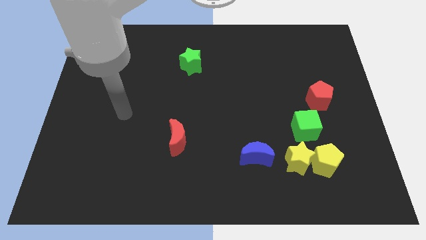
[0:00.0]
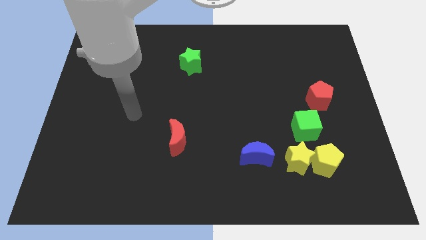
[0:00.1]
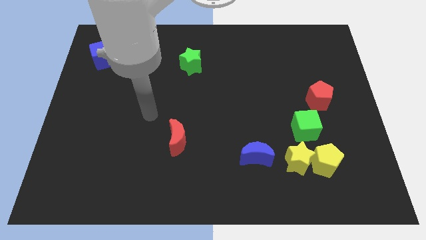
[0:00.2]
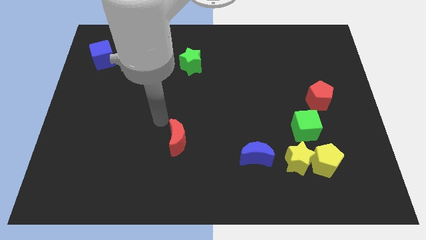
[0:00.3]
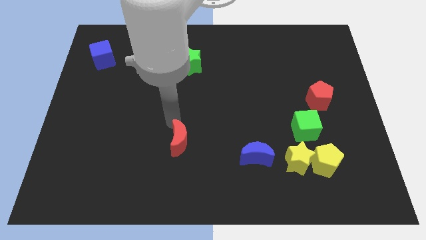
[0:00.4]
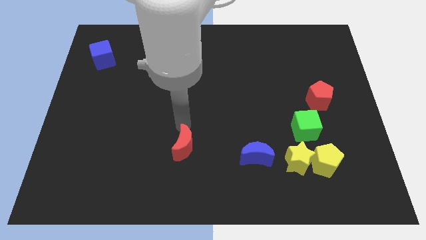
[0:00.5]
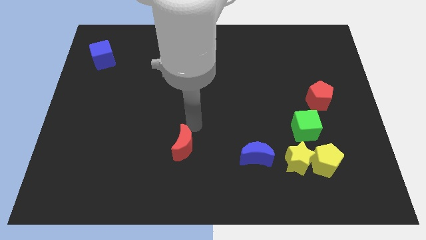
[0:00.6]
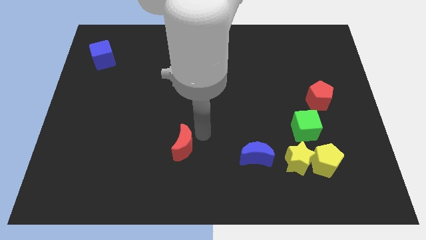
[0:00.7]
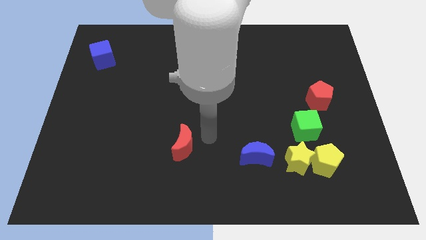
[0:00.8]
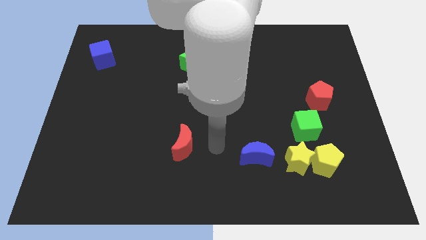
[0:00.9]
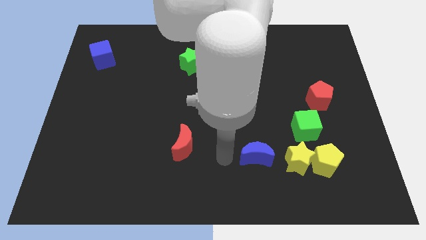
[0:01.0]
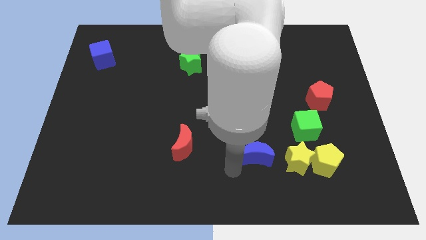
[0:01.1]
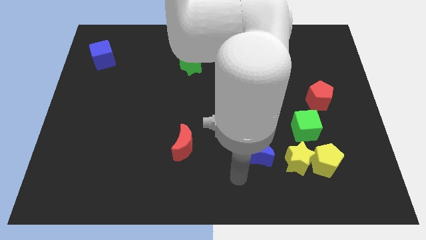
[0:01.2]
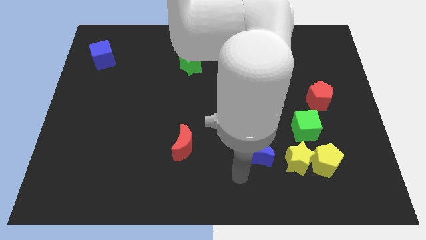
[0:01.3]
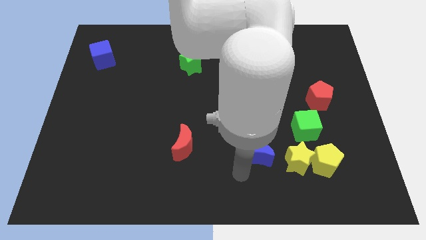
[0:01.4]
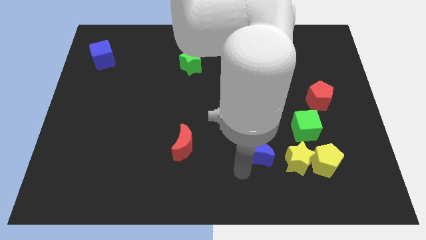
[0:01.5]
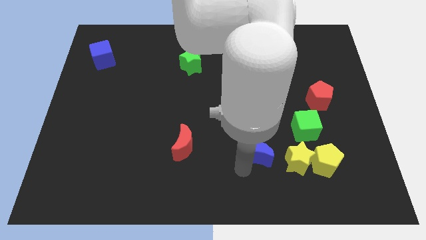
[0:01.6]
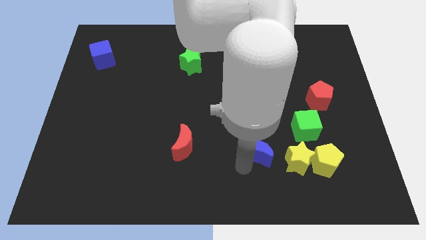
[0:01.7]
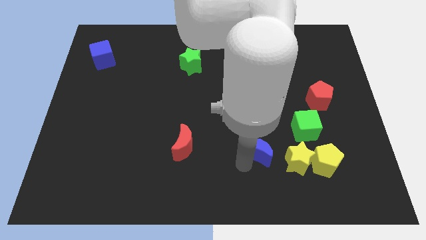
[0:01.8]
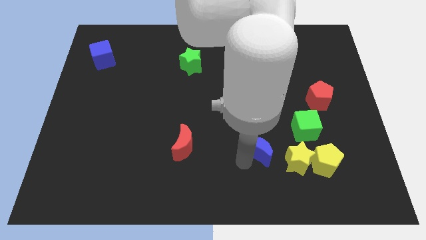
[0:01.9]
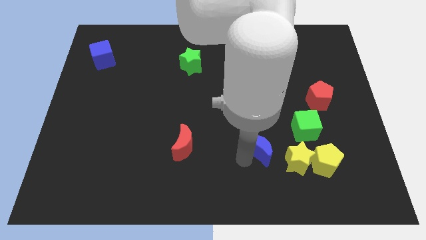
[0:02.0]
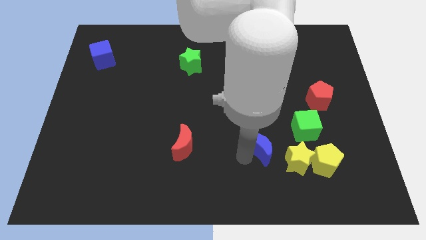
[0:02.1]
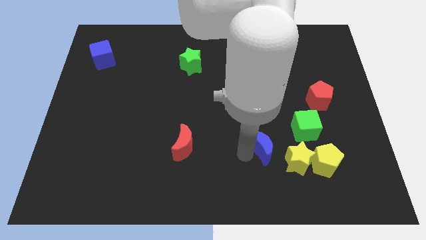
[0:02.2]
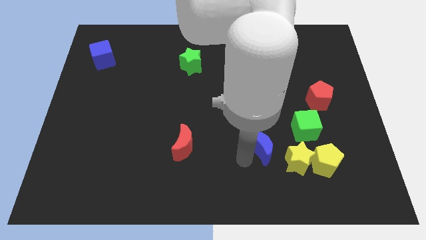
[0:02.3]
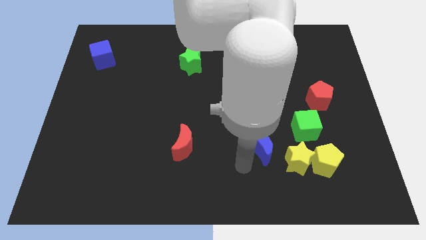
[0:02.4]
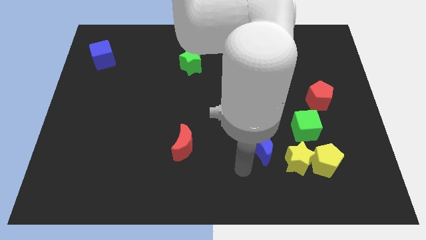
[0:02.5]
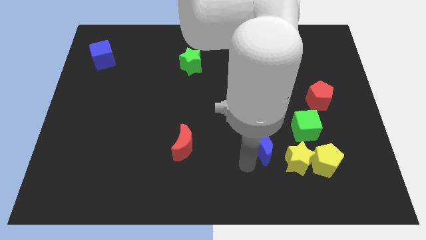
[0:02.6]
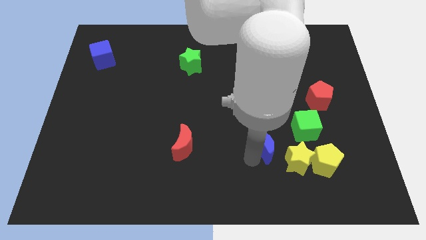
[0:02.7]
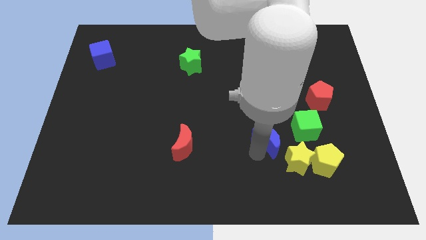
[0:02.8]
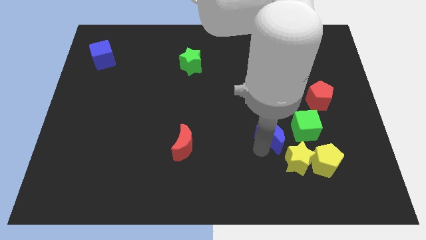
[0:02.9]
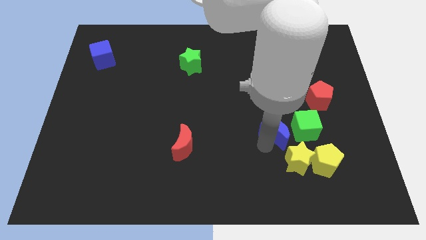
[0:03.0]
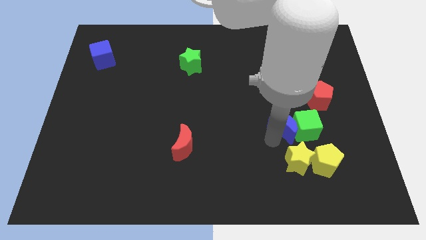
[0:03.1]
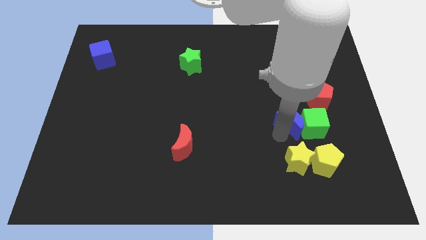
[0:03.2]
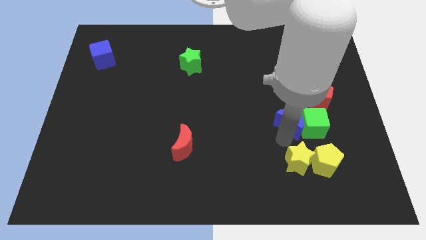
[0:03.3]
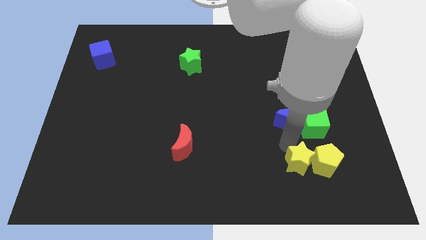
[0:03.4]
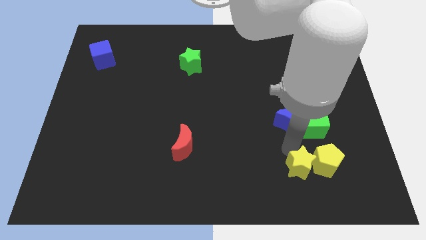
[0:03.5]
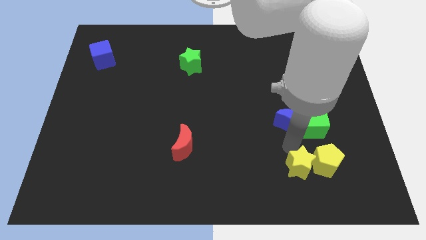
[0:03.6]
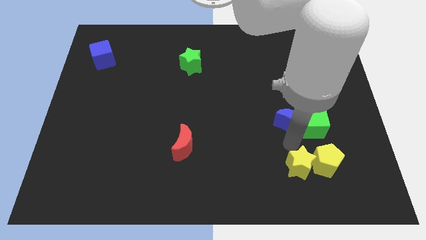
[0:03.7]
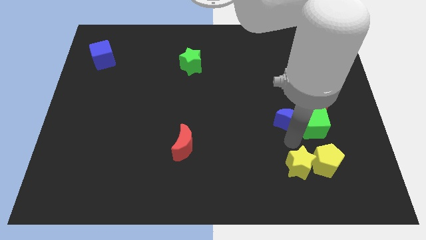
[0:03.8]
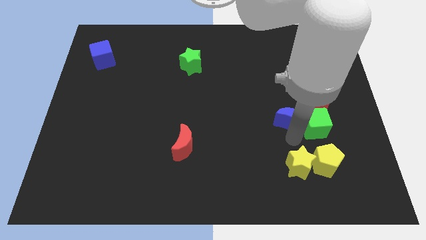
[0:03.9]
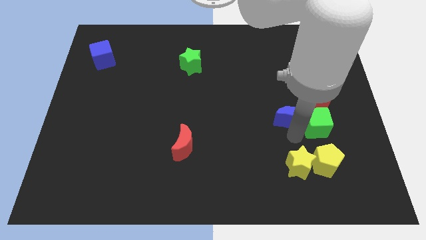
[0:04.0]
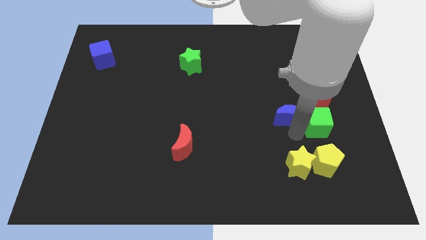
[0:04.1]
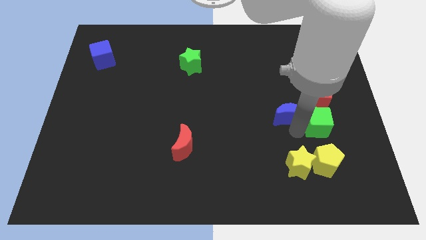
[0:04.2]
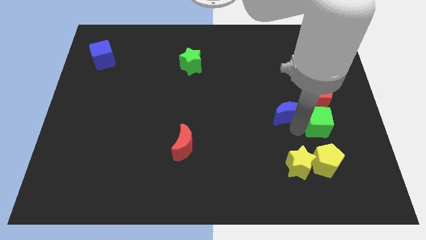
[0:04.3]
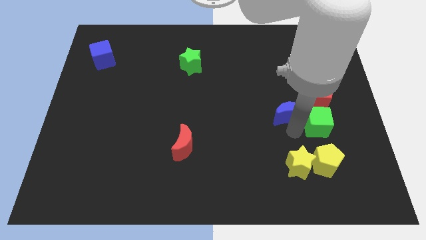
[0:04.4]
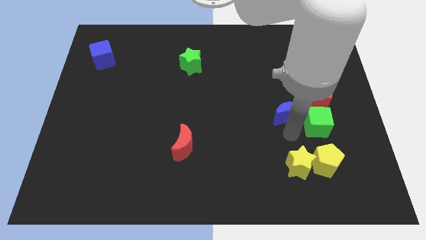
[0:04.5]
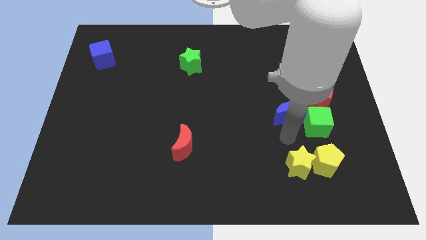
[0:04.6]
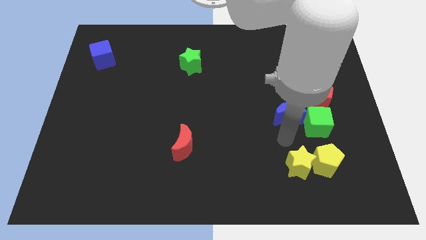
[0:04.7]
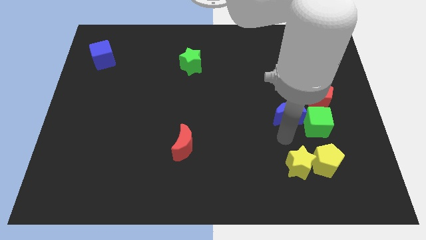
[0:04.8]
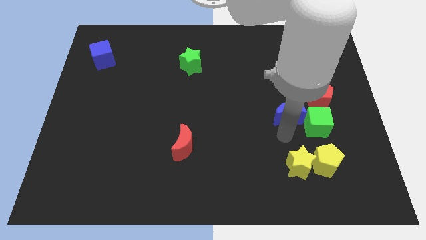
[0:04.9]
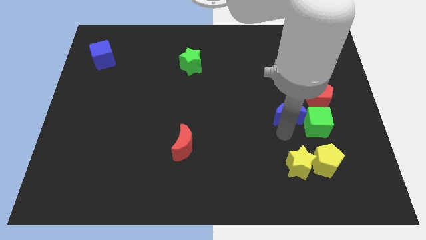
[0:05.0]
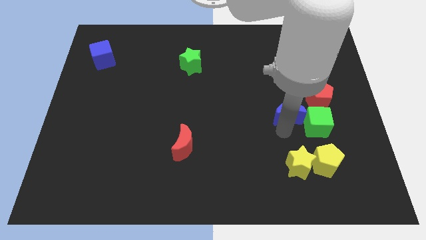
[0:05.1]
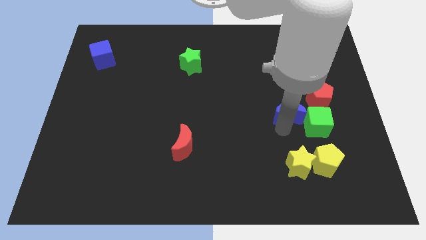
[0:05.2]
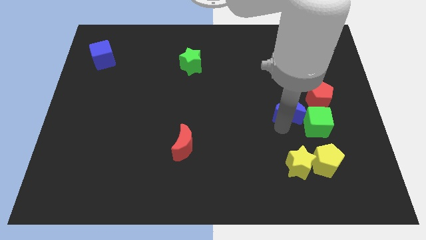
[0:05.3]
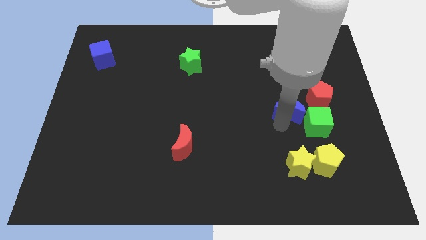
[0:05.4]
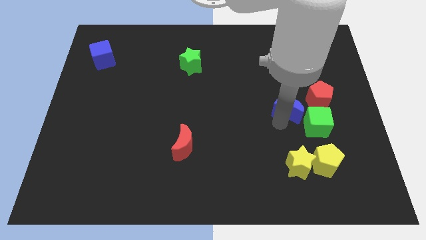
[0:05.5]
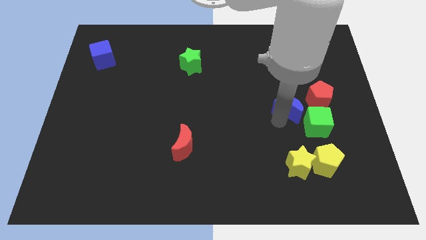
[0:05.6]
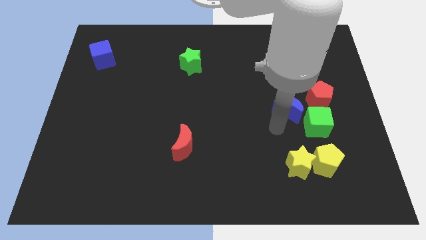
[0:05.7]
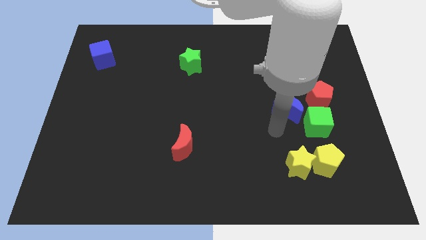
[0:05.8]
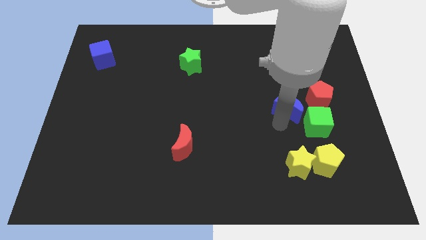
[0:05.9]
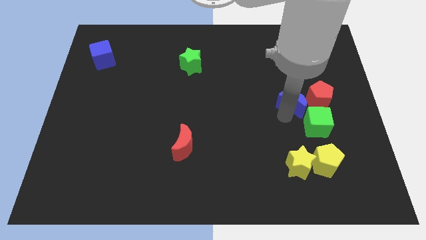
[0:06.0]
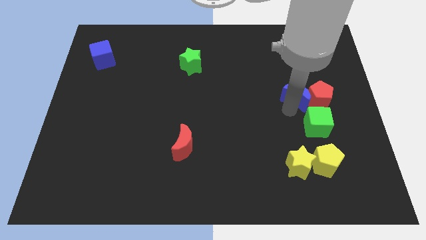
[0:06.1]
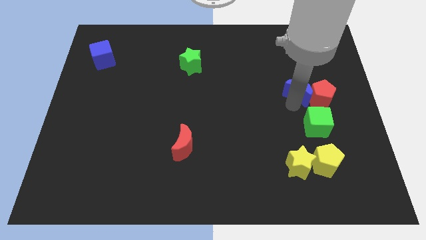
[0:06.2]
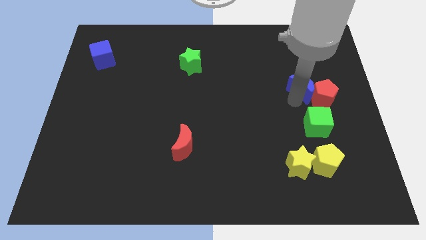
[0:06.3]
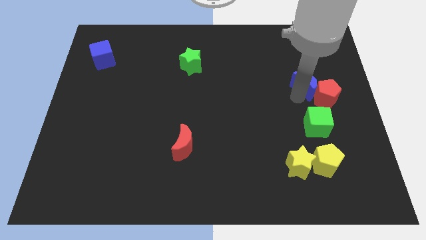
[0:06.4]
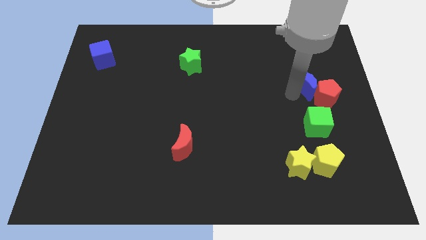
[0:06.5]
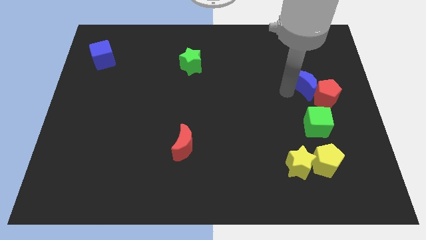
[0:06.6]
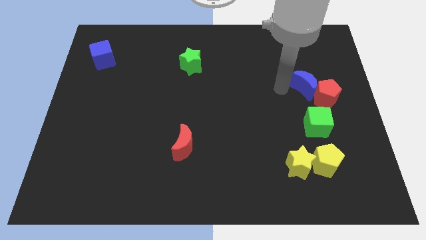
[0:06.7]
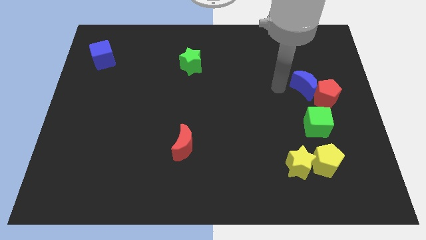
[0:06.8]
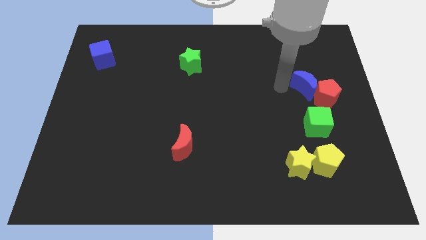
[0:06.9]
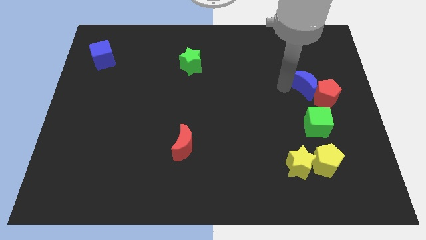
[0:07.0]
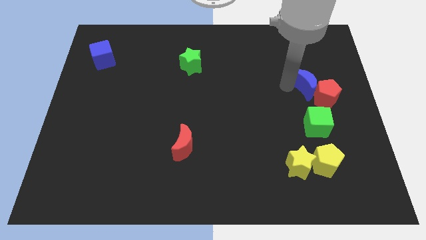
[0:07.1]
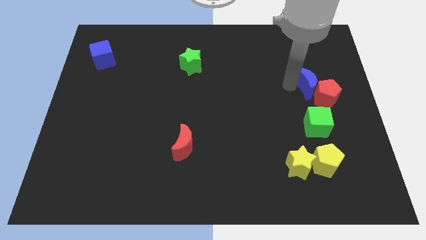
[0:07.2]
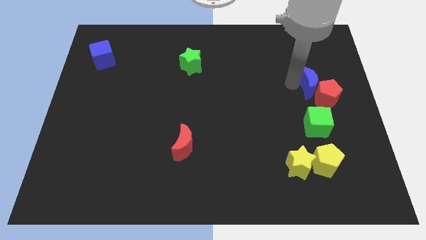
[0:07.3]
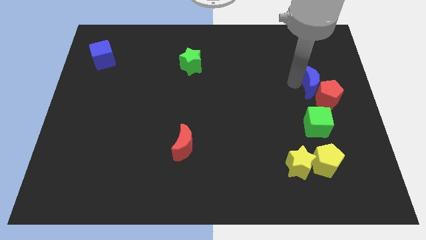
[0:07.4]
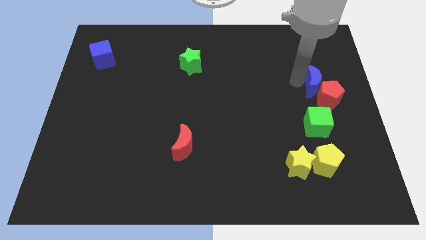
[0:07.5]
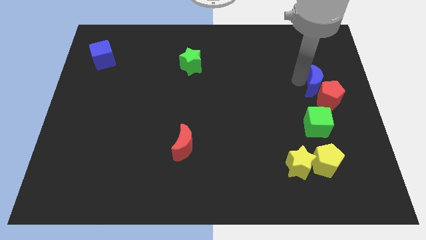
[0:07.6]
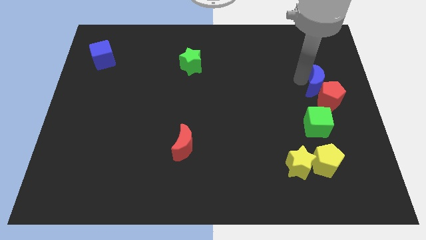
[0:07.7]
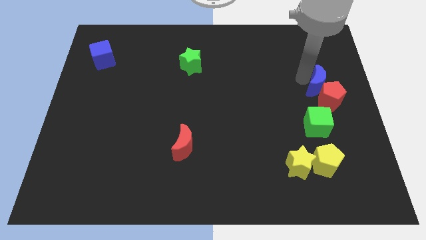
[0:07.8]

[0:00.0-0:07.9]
move the blue moon to the right side
